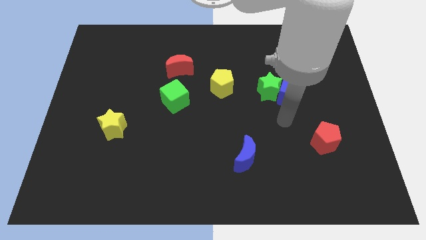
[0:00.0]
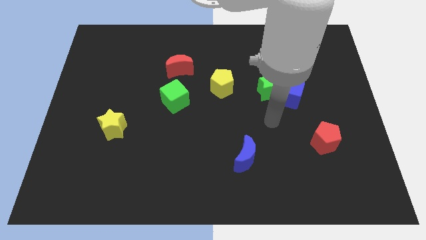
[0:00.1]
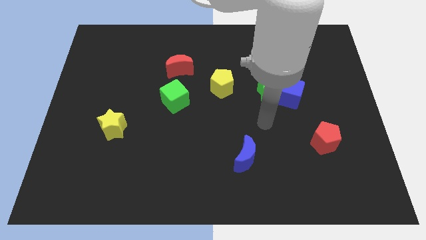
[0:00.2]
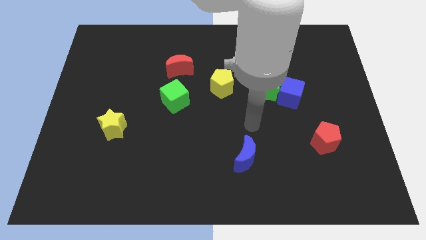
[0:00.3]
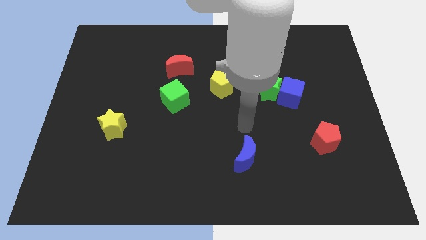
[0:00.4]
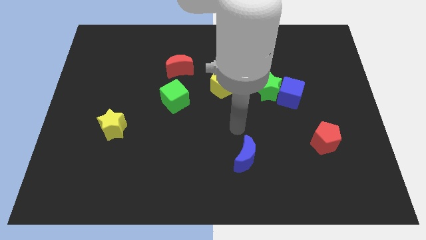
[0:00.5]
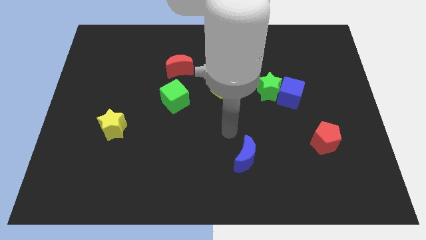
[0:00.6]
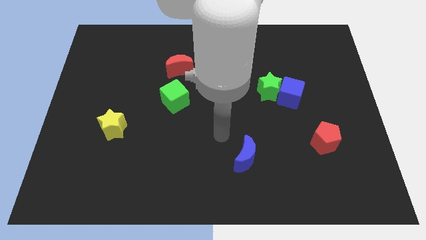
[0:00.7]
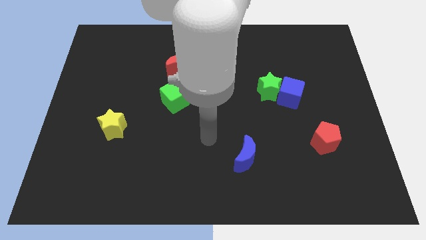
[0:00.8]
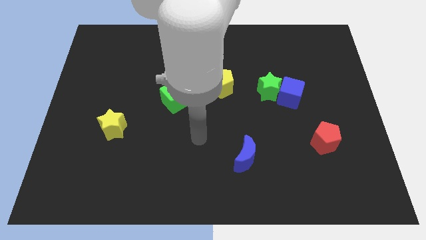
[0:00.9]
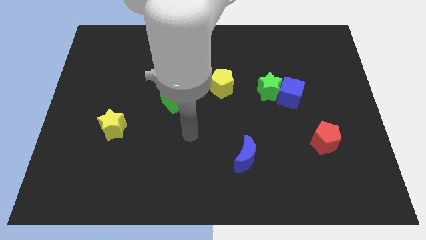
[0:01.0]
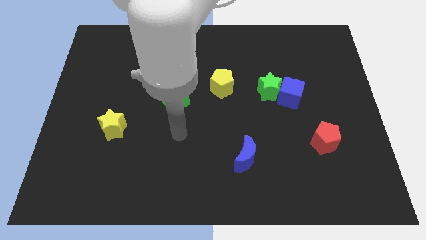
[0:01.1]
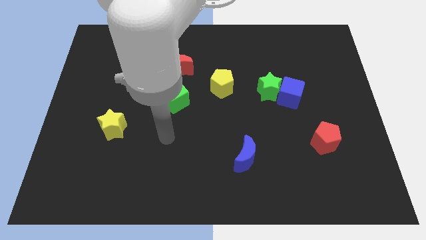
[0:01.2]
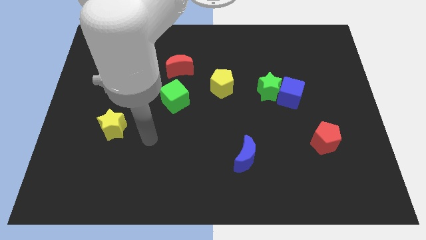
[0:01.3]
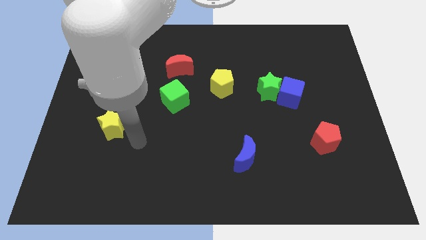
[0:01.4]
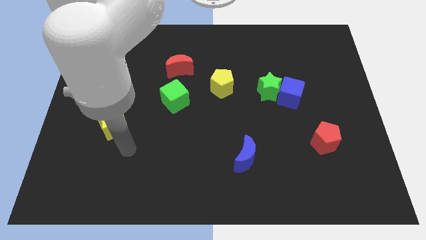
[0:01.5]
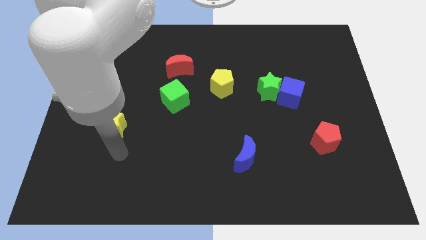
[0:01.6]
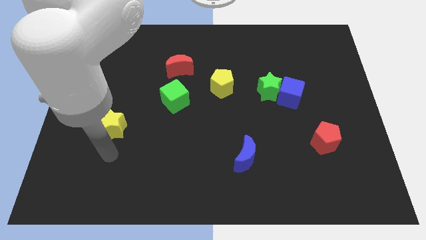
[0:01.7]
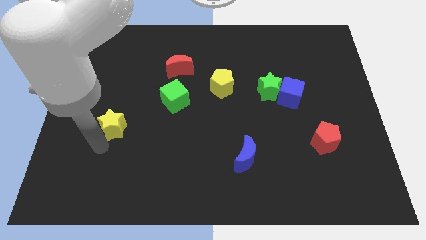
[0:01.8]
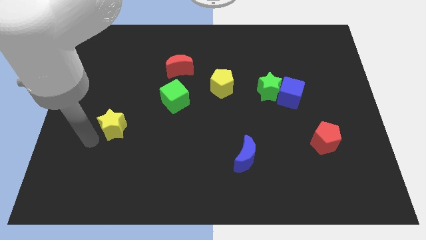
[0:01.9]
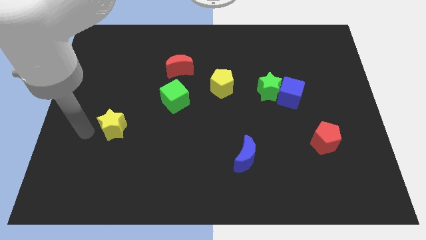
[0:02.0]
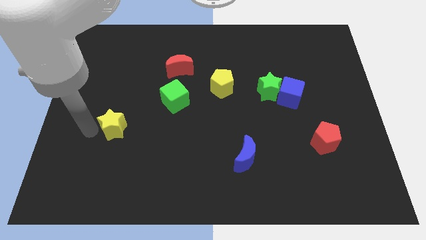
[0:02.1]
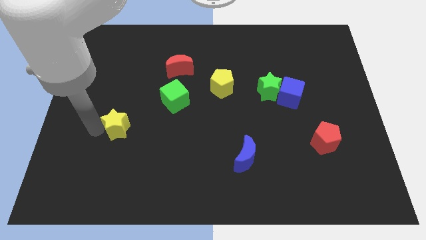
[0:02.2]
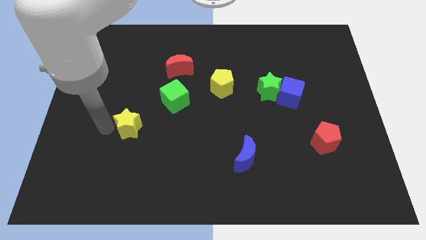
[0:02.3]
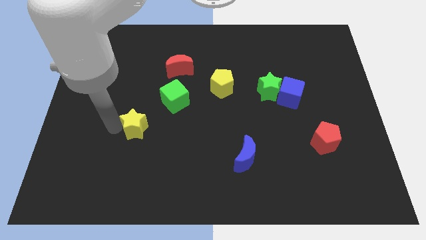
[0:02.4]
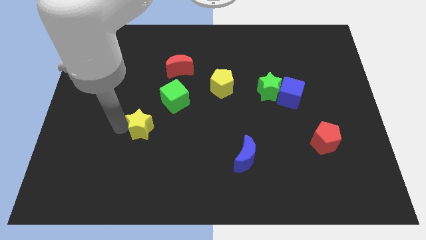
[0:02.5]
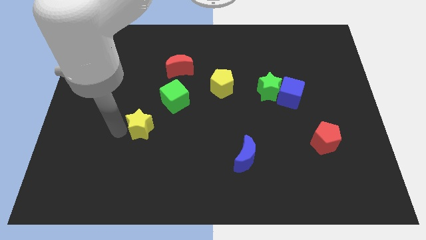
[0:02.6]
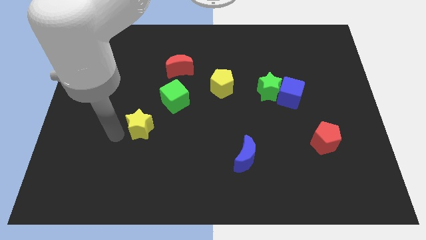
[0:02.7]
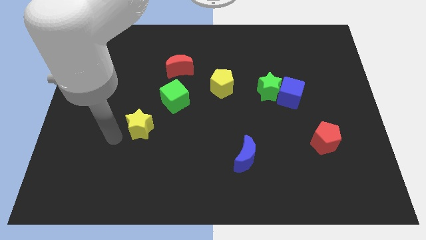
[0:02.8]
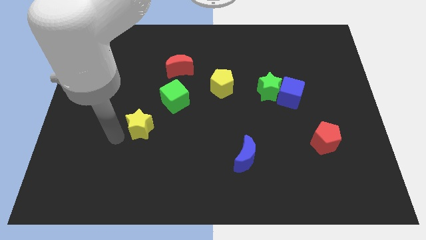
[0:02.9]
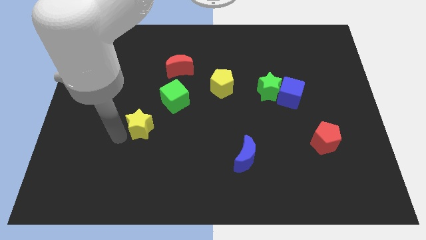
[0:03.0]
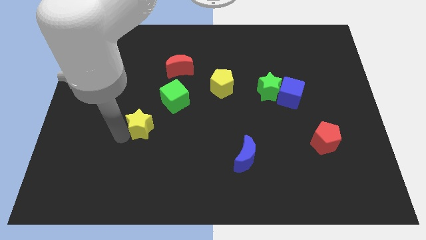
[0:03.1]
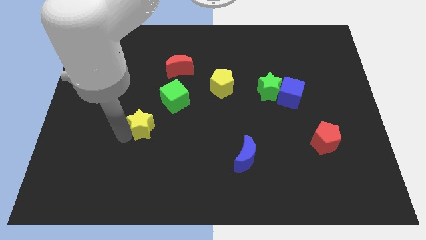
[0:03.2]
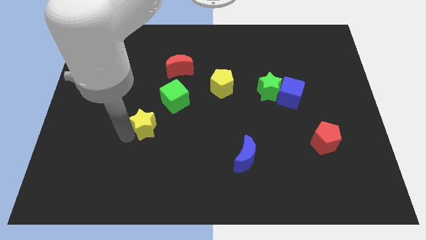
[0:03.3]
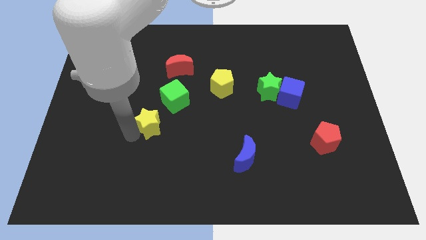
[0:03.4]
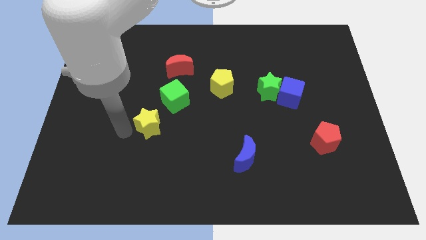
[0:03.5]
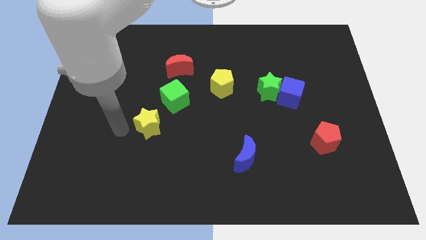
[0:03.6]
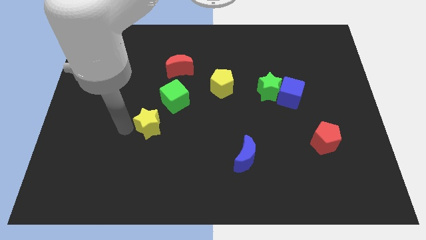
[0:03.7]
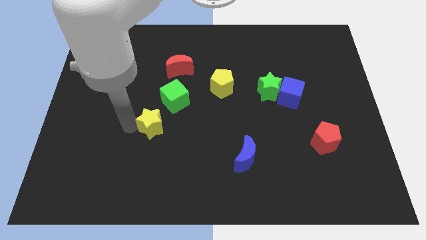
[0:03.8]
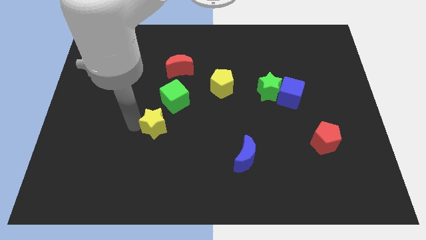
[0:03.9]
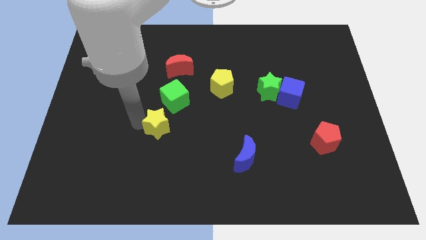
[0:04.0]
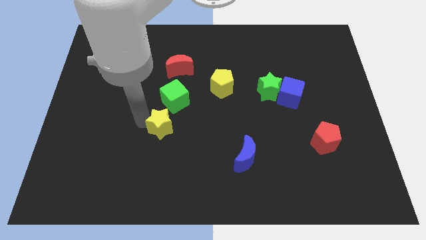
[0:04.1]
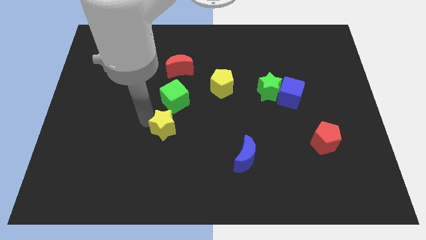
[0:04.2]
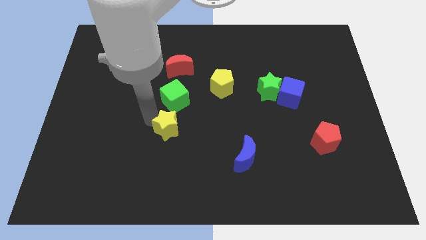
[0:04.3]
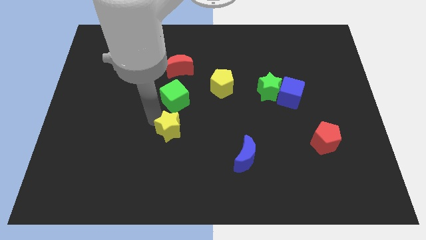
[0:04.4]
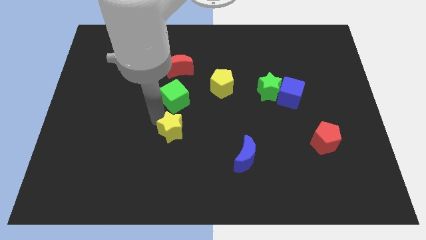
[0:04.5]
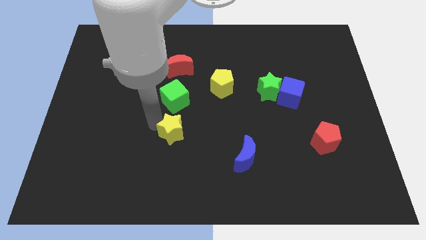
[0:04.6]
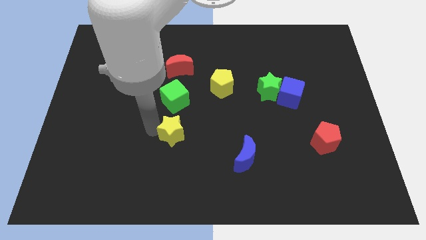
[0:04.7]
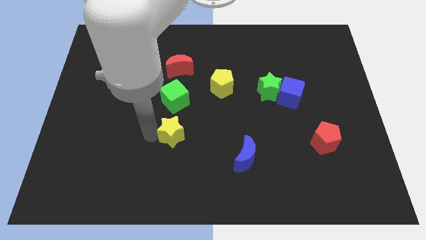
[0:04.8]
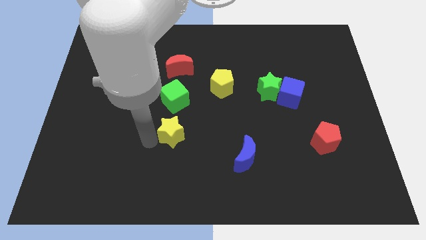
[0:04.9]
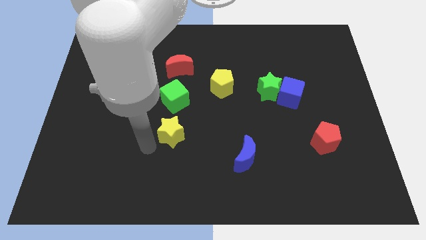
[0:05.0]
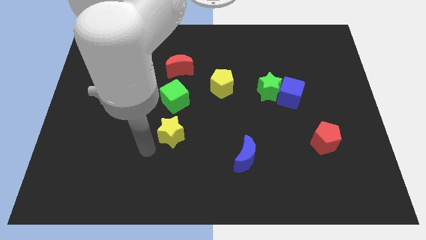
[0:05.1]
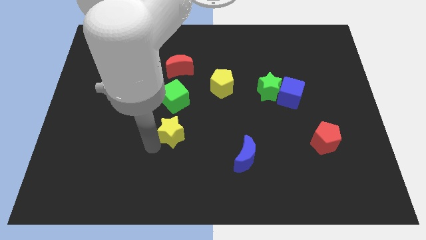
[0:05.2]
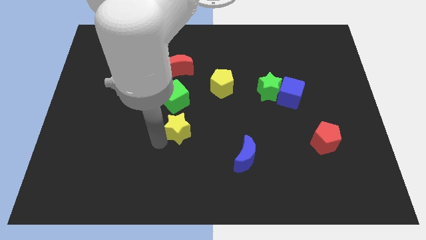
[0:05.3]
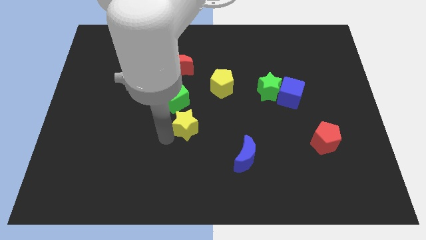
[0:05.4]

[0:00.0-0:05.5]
slide the yellow star to the bottom right side of the green cube

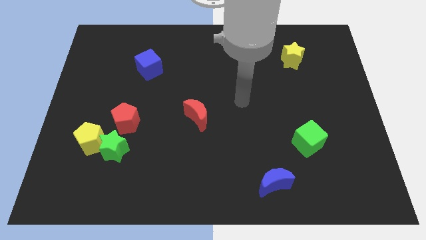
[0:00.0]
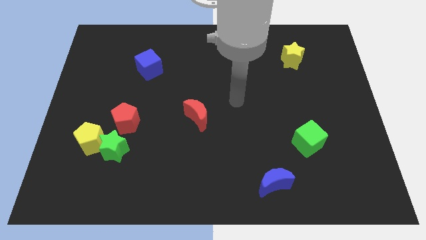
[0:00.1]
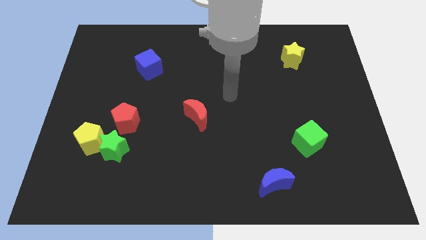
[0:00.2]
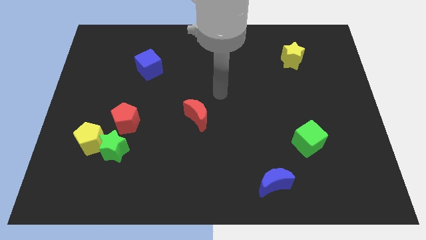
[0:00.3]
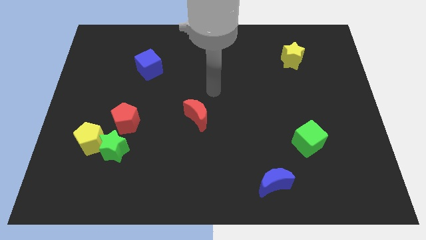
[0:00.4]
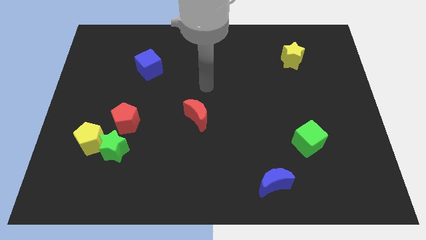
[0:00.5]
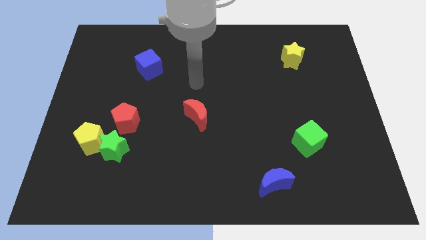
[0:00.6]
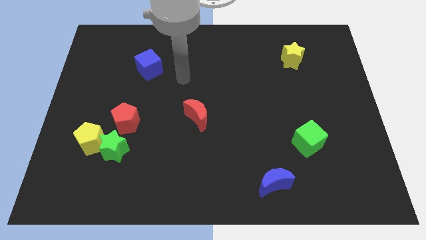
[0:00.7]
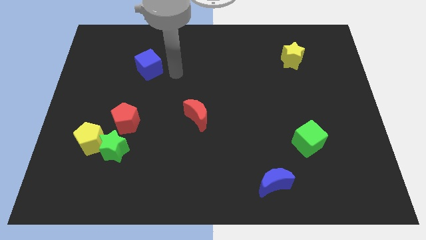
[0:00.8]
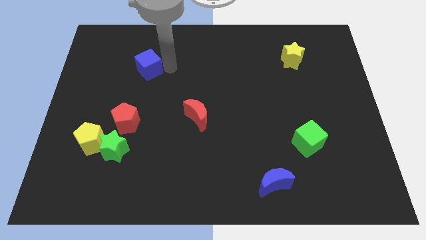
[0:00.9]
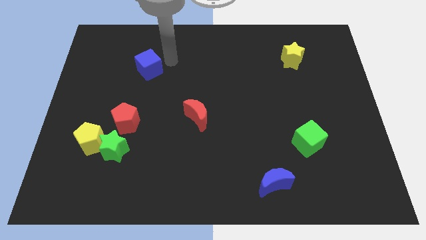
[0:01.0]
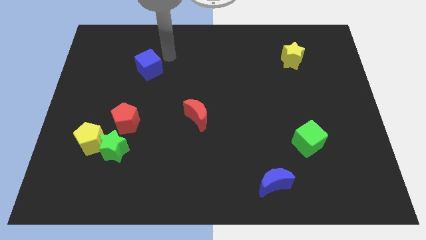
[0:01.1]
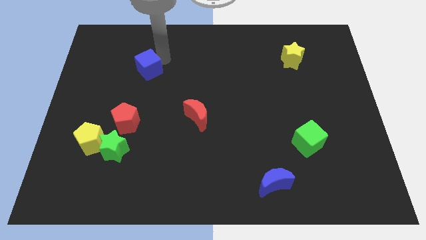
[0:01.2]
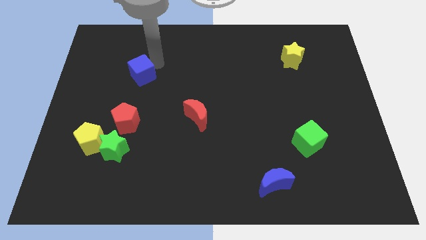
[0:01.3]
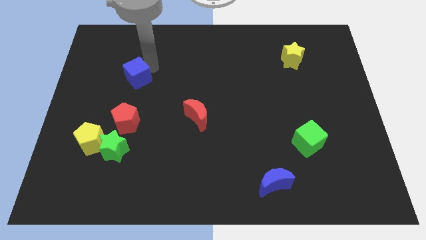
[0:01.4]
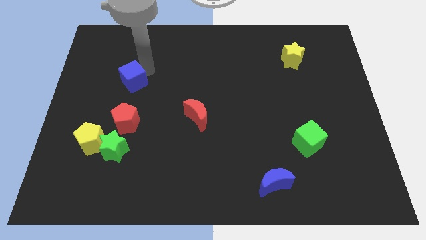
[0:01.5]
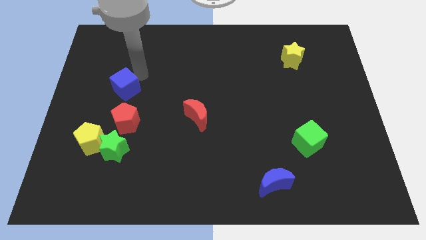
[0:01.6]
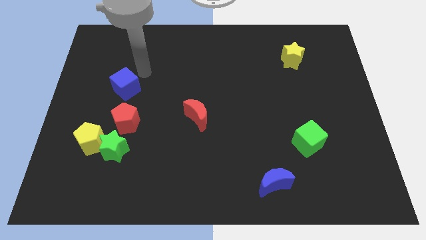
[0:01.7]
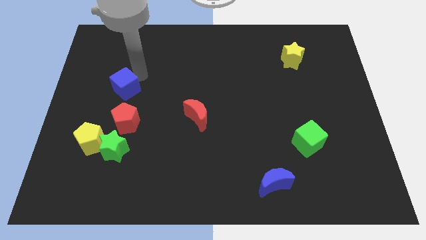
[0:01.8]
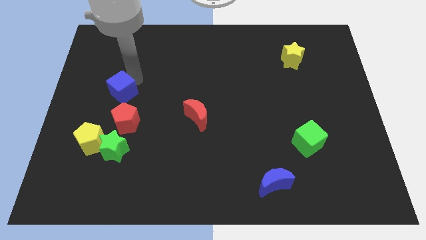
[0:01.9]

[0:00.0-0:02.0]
put the blue cube to the top left side of the red pentagon
